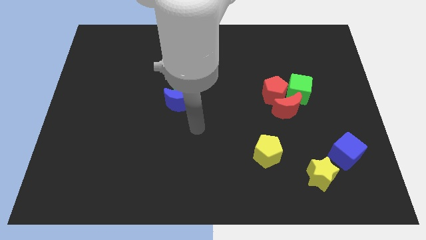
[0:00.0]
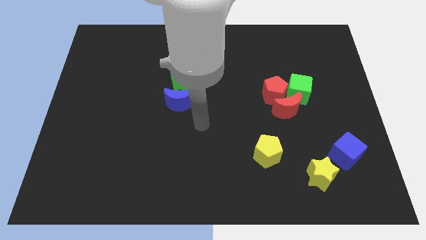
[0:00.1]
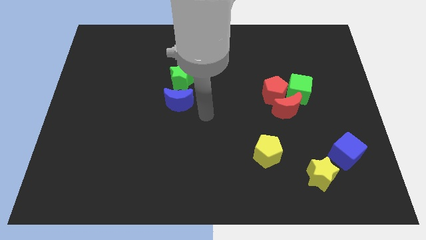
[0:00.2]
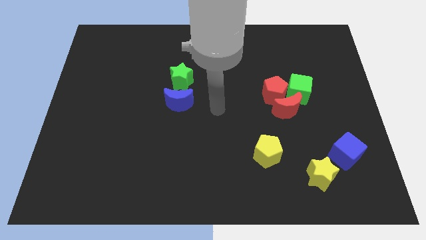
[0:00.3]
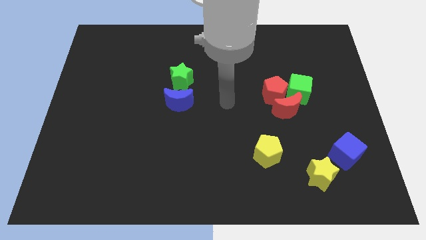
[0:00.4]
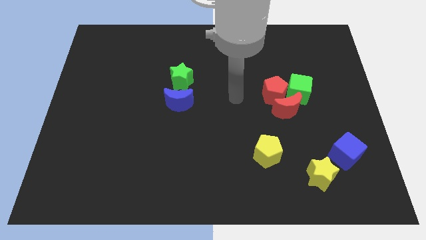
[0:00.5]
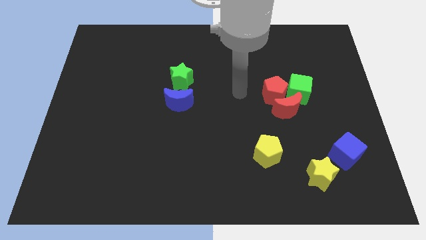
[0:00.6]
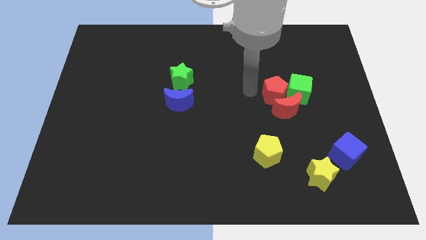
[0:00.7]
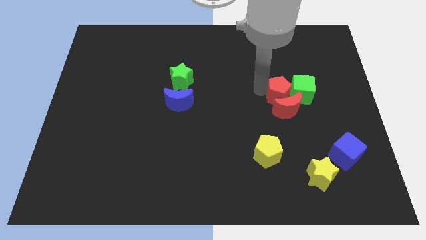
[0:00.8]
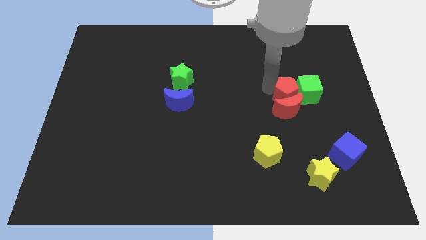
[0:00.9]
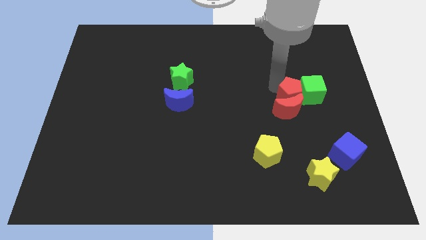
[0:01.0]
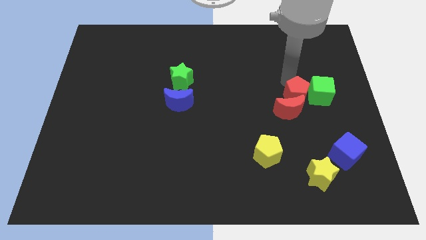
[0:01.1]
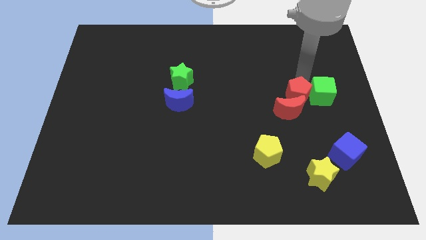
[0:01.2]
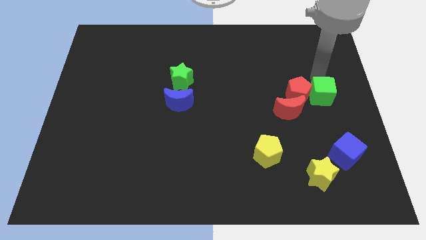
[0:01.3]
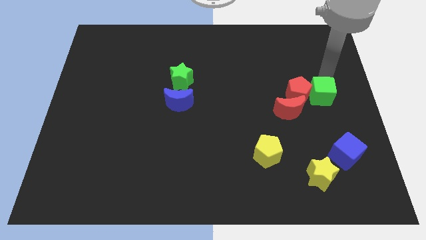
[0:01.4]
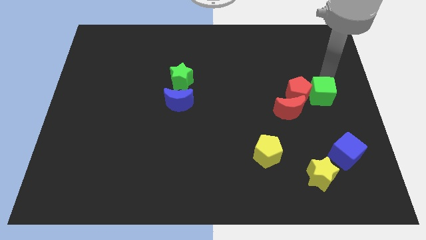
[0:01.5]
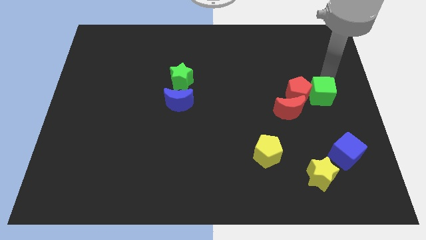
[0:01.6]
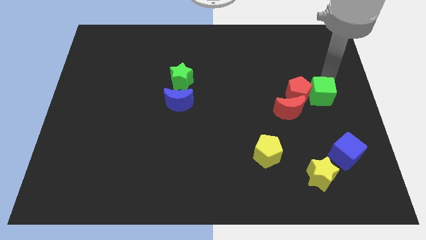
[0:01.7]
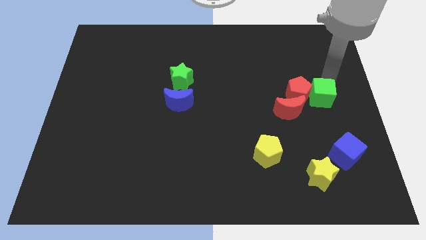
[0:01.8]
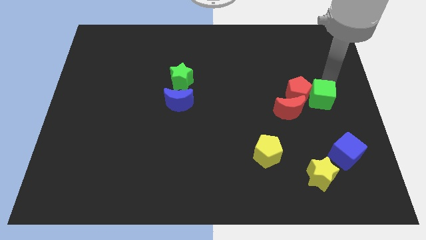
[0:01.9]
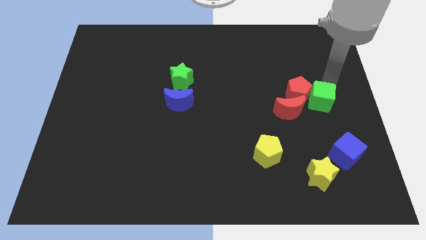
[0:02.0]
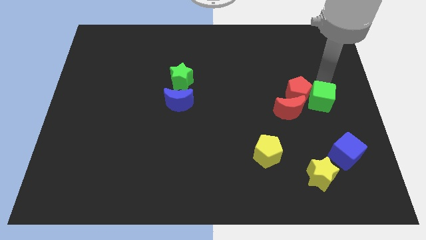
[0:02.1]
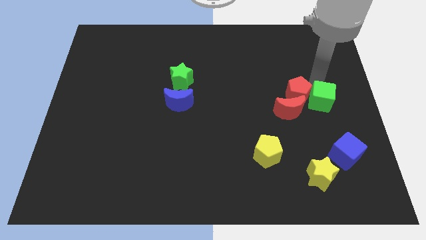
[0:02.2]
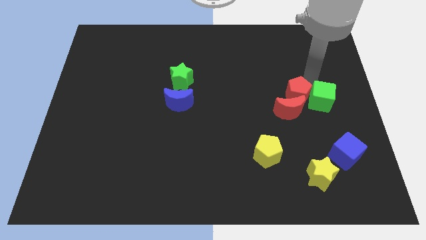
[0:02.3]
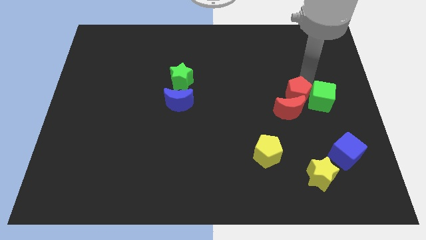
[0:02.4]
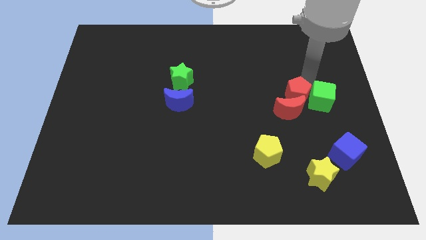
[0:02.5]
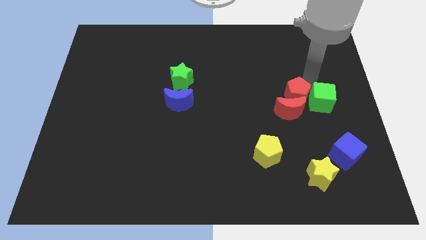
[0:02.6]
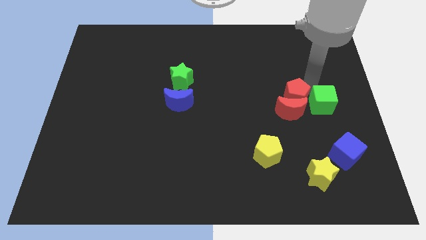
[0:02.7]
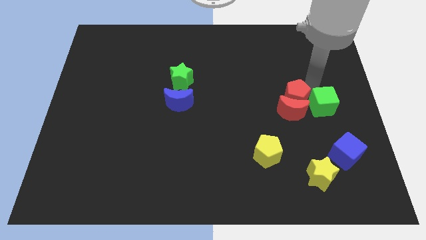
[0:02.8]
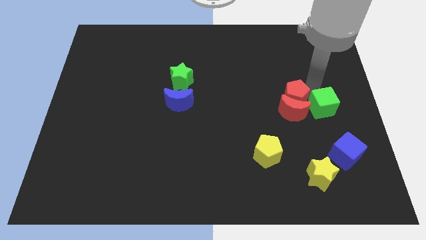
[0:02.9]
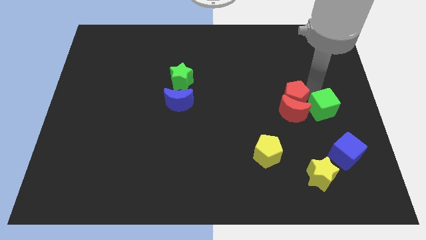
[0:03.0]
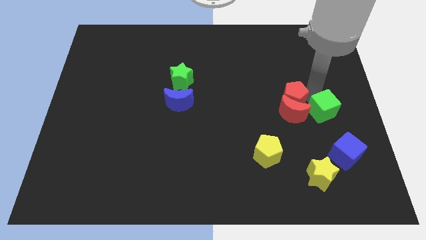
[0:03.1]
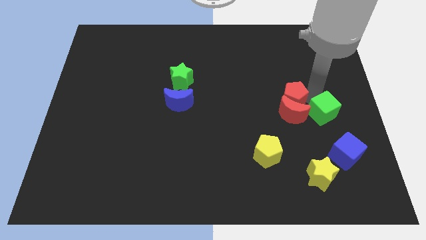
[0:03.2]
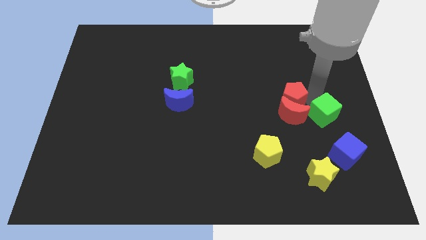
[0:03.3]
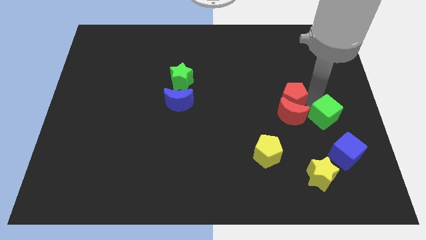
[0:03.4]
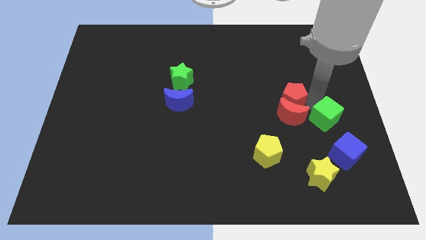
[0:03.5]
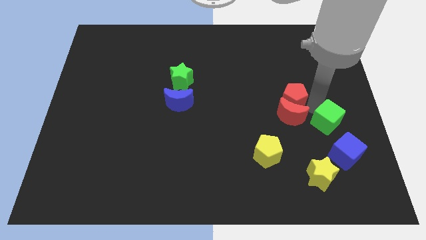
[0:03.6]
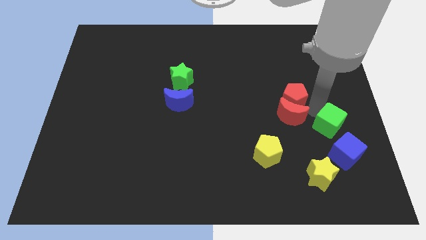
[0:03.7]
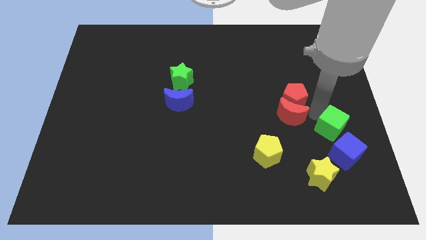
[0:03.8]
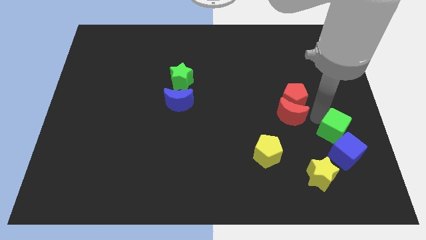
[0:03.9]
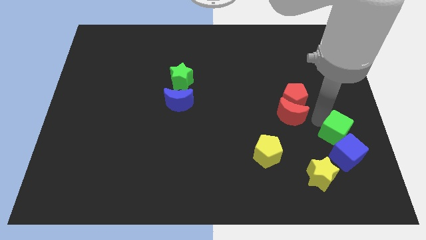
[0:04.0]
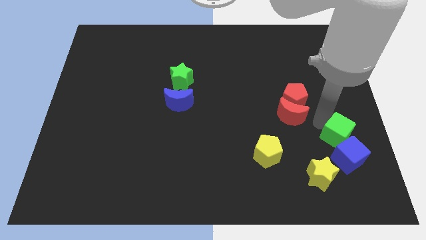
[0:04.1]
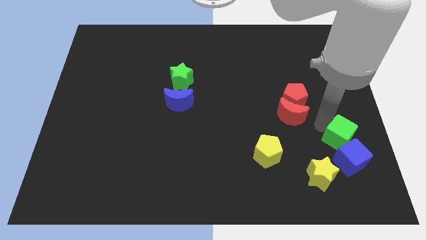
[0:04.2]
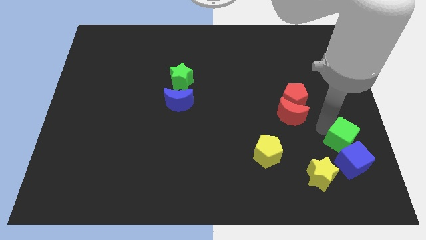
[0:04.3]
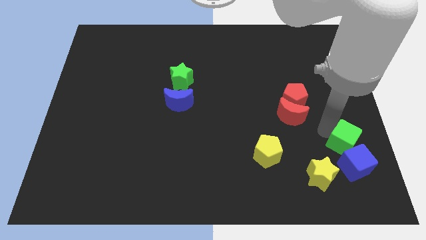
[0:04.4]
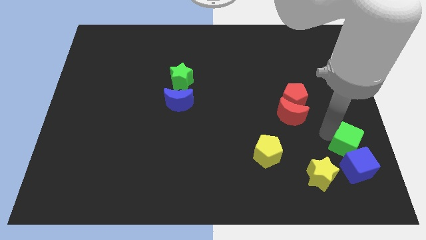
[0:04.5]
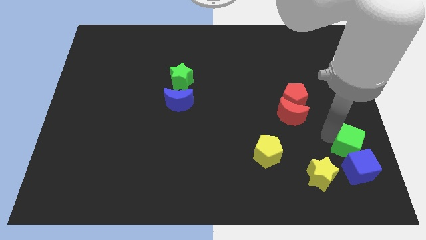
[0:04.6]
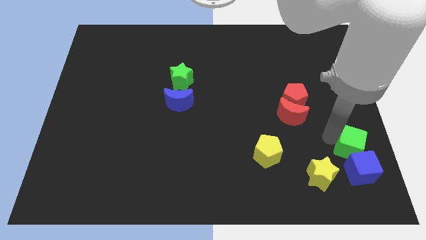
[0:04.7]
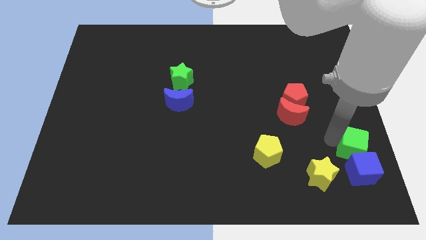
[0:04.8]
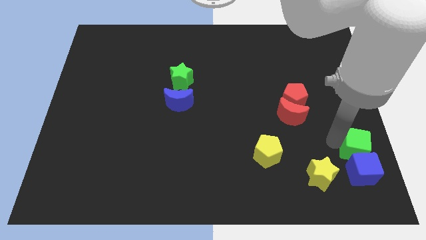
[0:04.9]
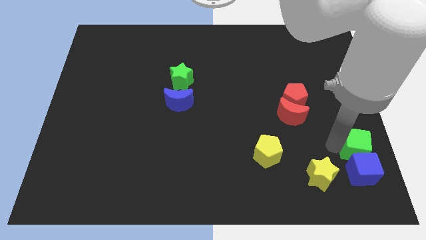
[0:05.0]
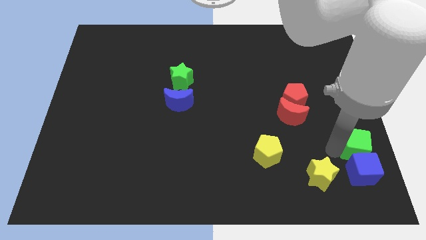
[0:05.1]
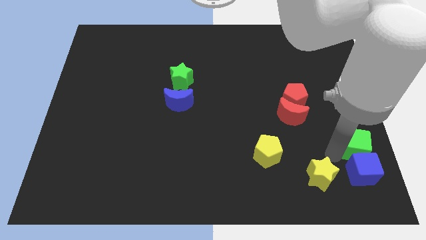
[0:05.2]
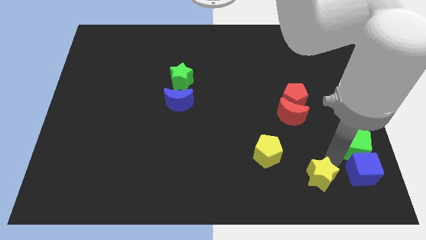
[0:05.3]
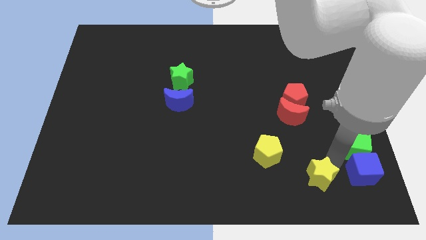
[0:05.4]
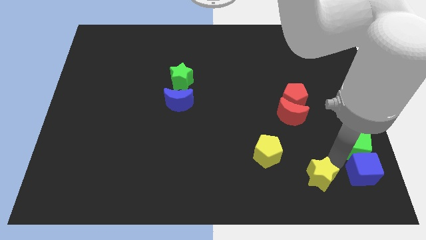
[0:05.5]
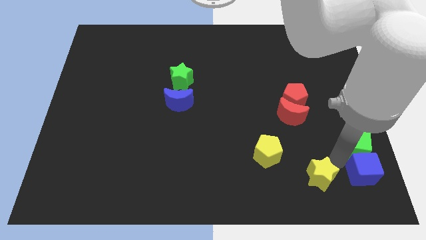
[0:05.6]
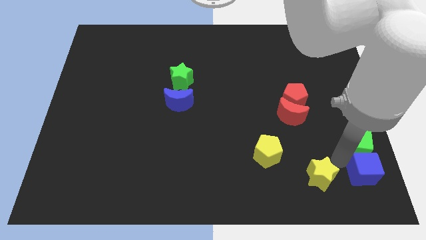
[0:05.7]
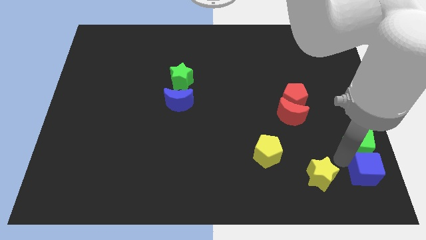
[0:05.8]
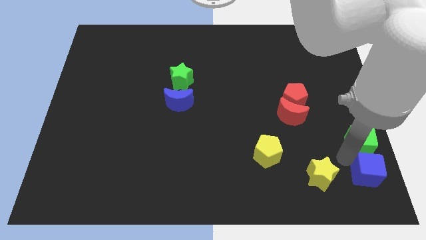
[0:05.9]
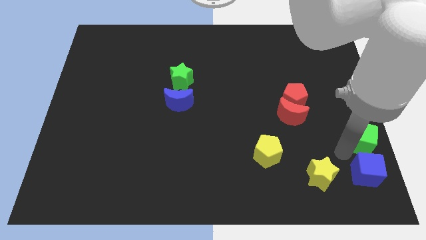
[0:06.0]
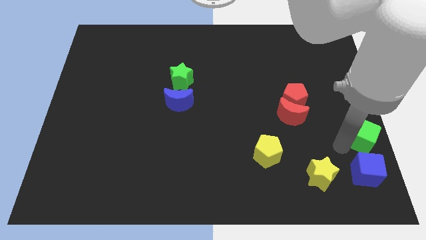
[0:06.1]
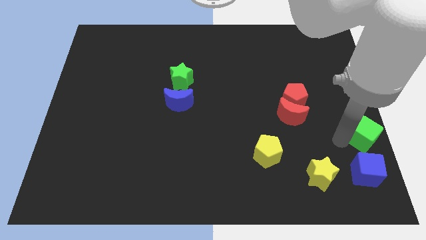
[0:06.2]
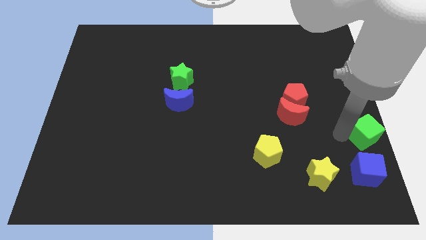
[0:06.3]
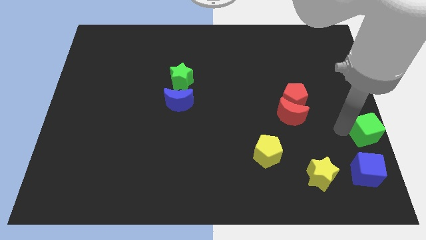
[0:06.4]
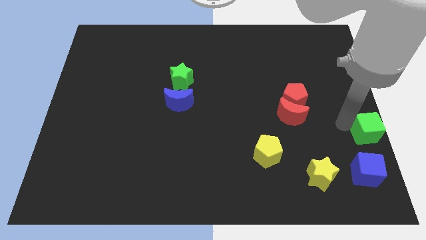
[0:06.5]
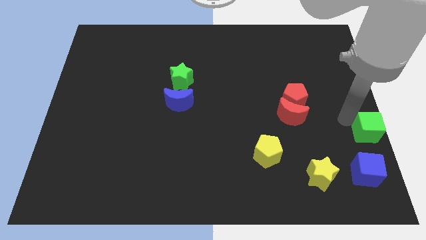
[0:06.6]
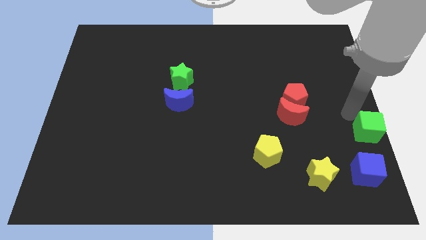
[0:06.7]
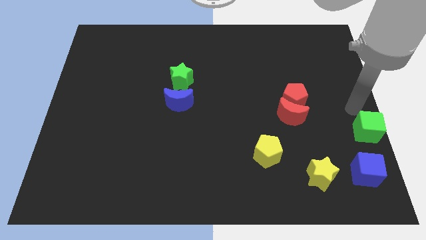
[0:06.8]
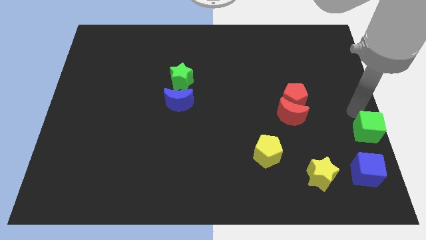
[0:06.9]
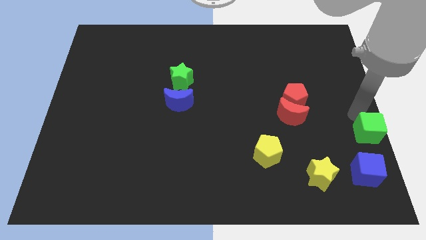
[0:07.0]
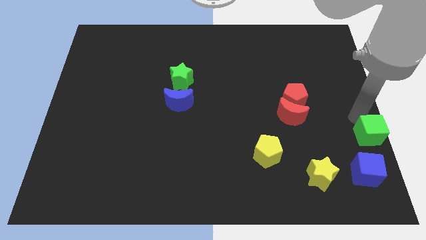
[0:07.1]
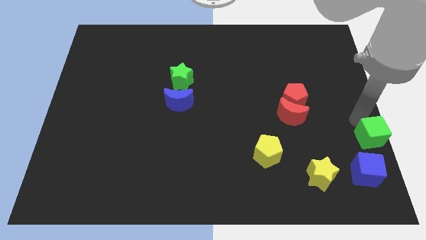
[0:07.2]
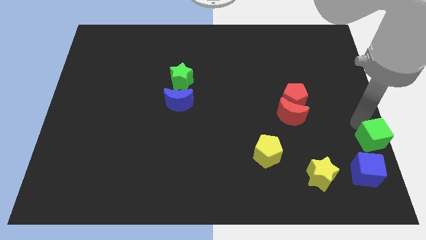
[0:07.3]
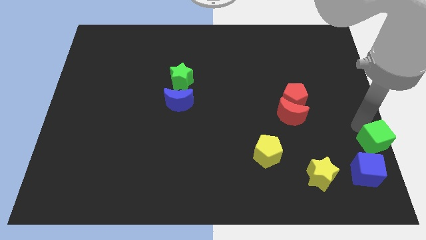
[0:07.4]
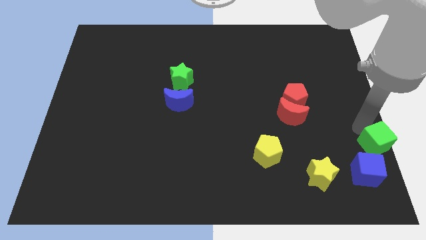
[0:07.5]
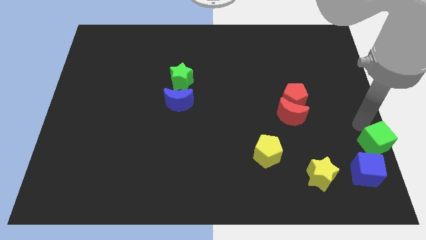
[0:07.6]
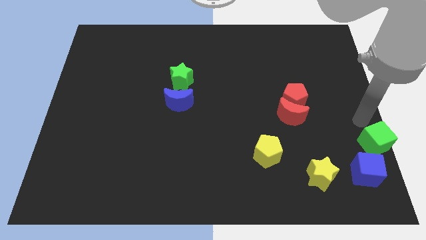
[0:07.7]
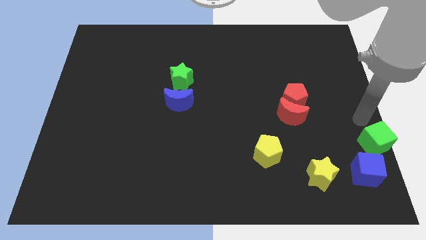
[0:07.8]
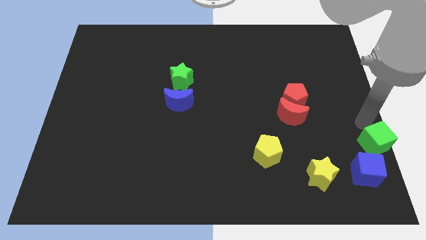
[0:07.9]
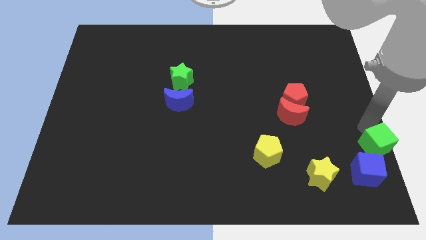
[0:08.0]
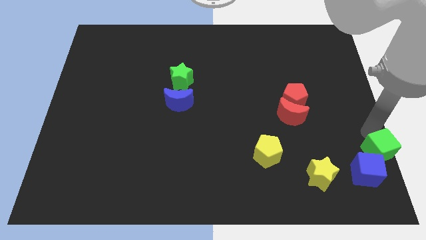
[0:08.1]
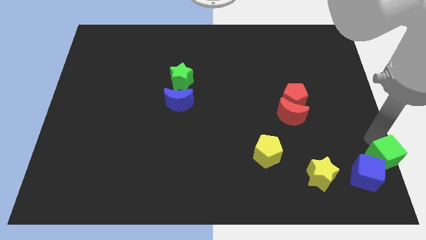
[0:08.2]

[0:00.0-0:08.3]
push the green cube to the lower right corner
